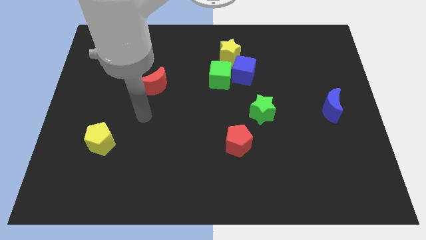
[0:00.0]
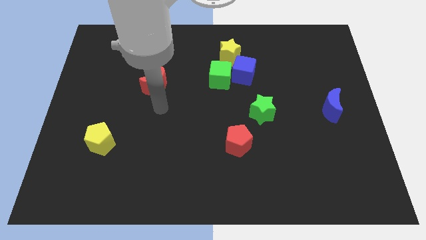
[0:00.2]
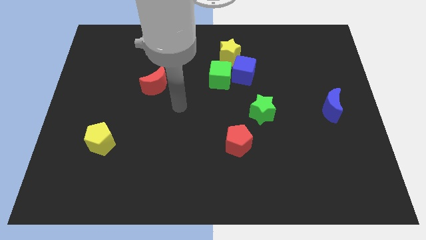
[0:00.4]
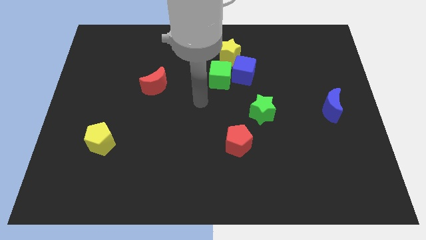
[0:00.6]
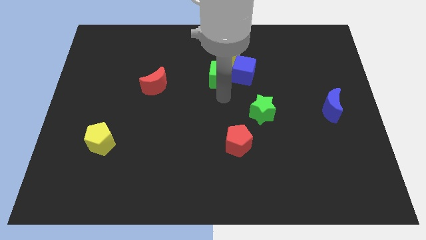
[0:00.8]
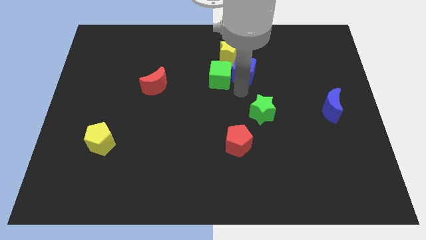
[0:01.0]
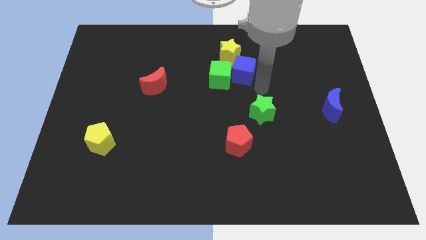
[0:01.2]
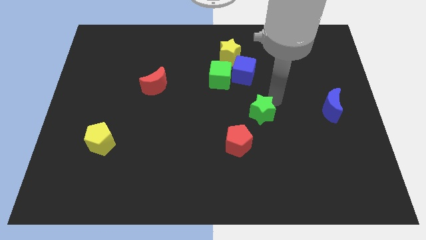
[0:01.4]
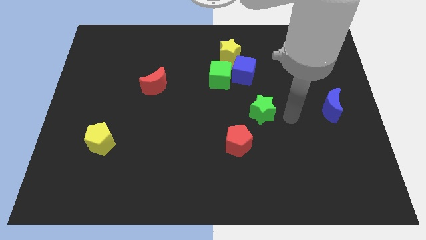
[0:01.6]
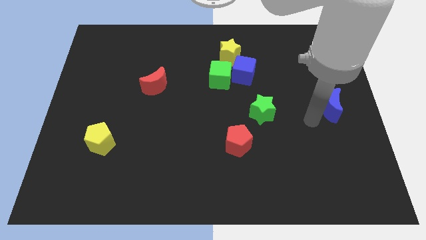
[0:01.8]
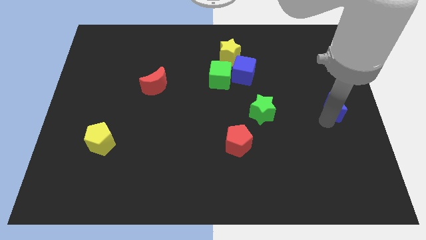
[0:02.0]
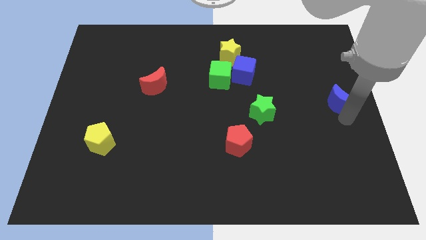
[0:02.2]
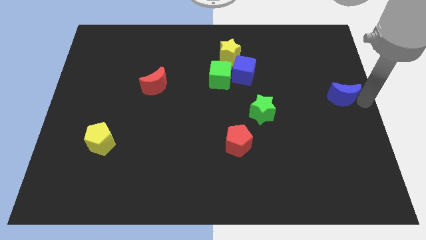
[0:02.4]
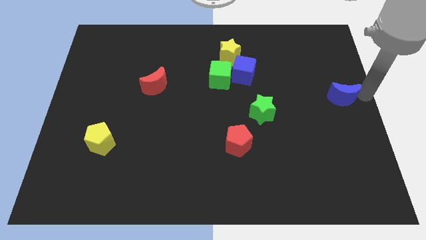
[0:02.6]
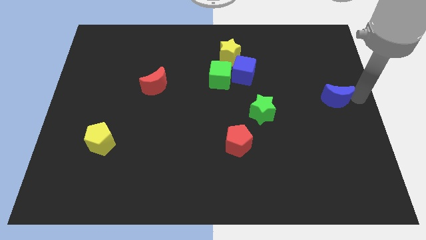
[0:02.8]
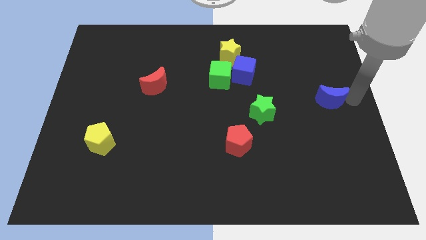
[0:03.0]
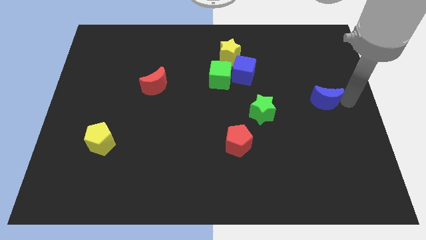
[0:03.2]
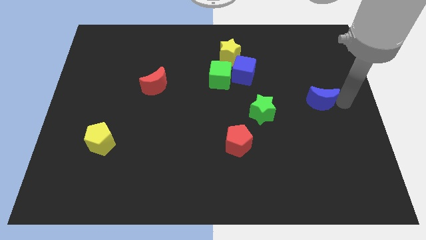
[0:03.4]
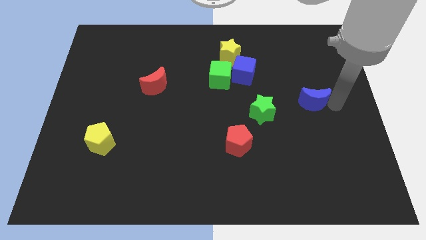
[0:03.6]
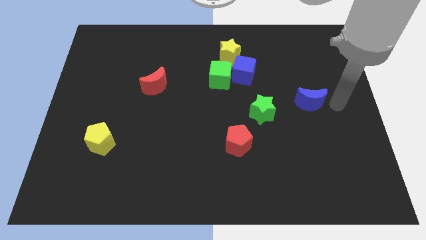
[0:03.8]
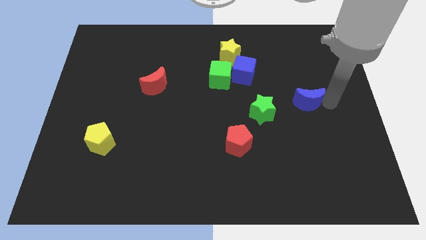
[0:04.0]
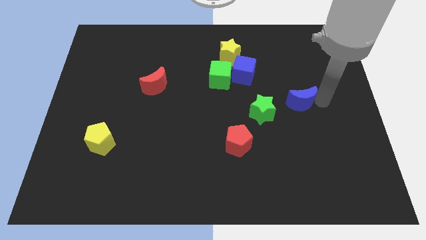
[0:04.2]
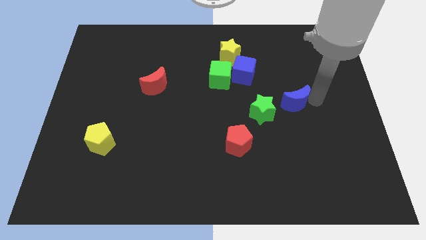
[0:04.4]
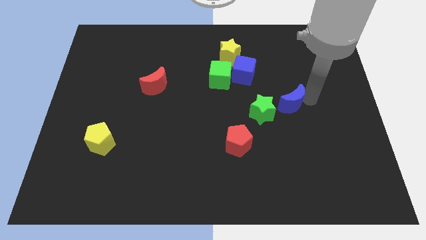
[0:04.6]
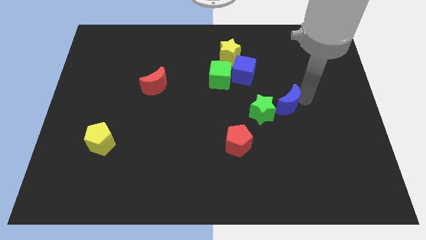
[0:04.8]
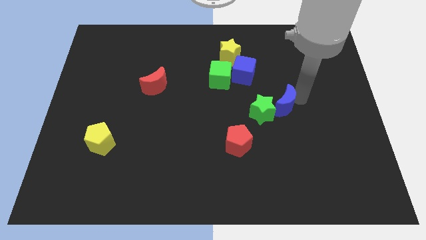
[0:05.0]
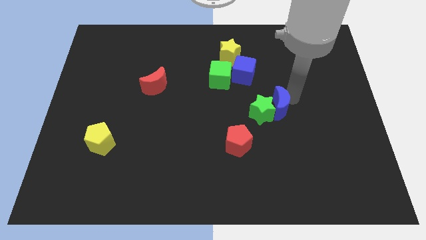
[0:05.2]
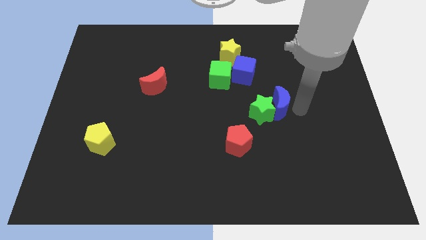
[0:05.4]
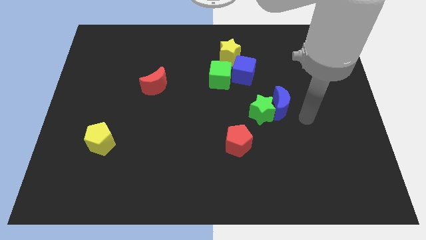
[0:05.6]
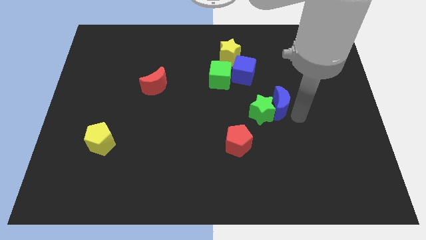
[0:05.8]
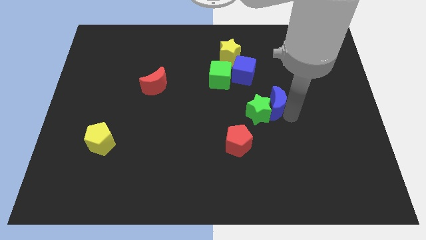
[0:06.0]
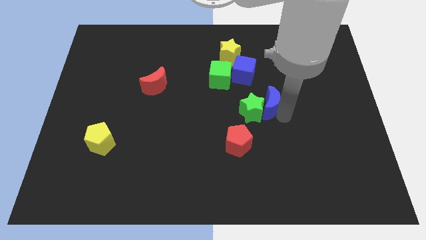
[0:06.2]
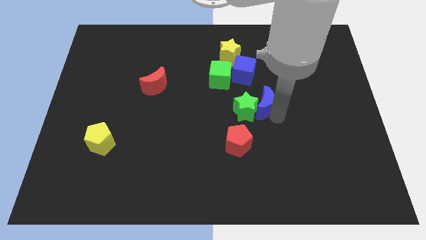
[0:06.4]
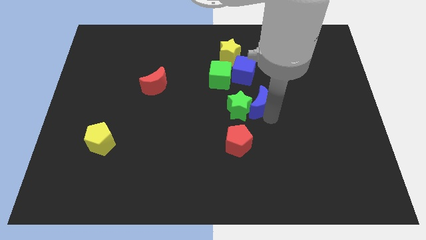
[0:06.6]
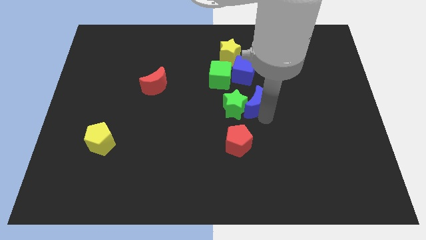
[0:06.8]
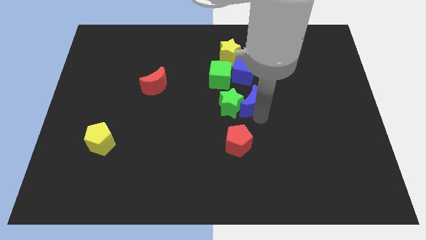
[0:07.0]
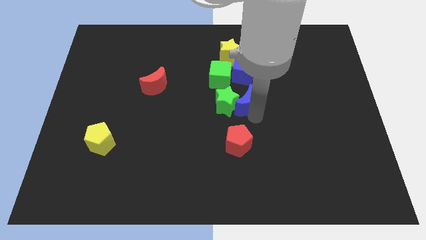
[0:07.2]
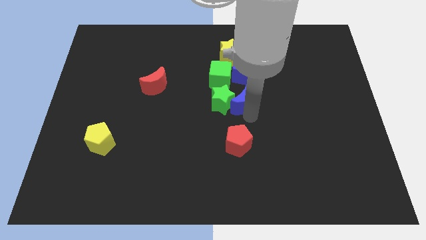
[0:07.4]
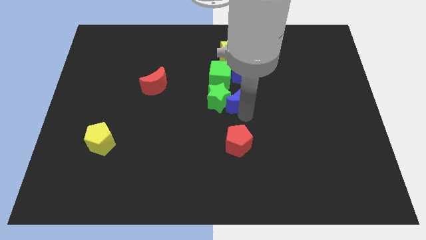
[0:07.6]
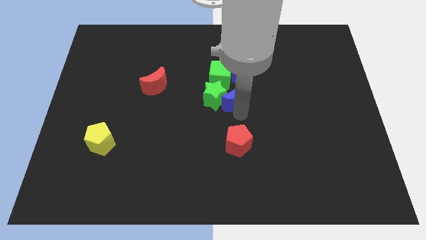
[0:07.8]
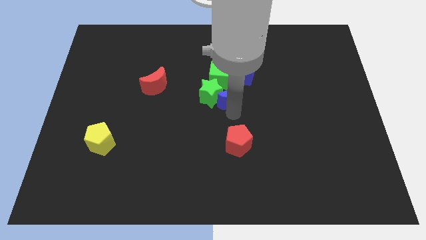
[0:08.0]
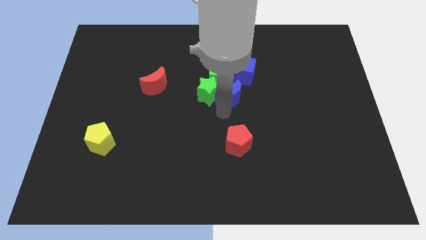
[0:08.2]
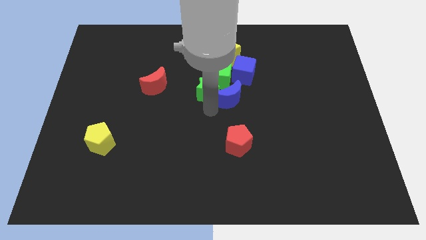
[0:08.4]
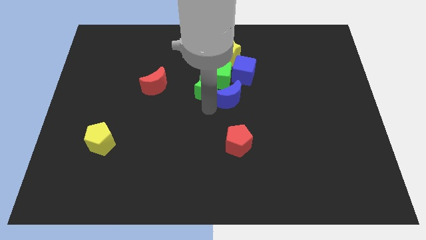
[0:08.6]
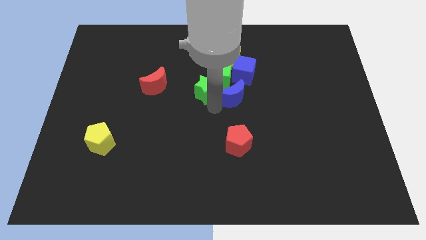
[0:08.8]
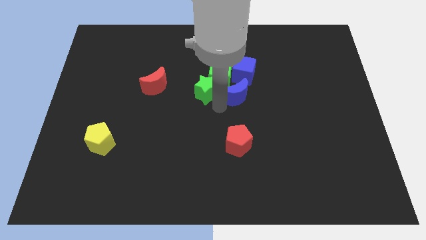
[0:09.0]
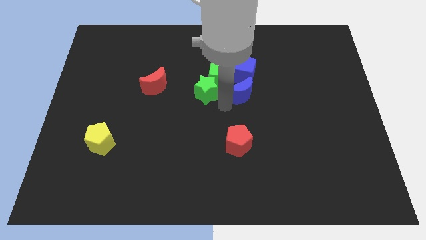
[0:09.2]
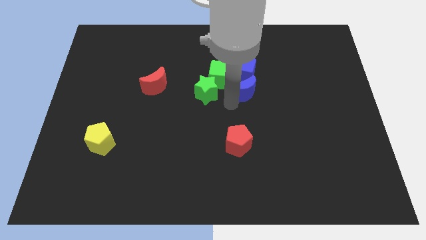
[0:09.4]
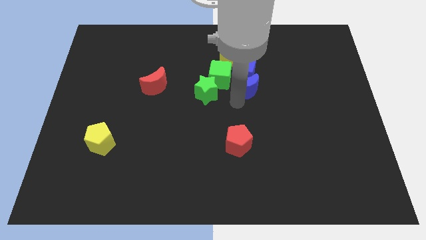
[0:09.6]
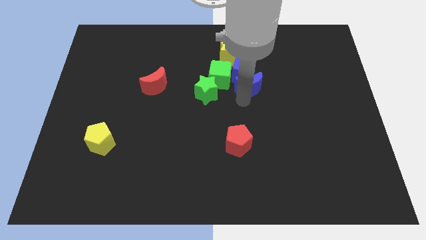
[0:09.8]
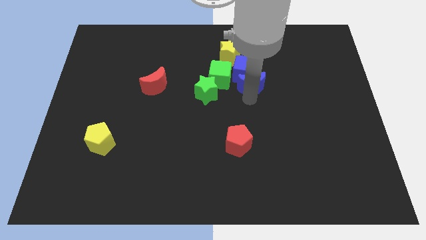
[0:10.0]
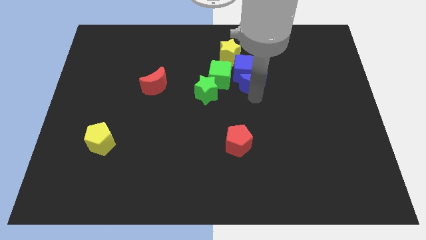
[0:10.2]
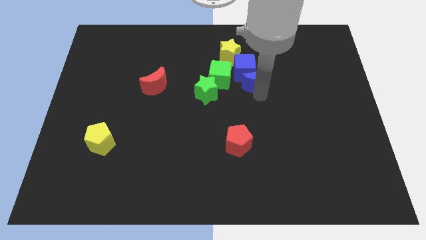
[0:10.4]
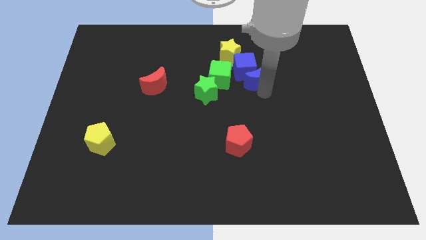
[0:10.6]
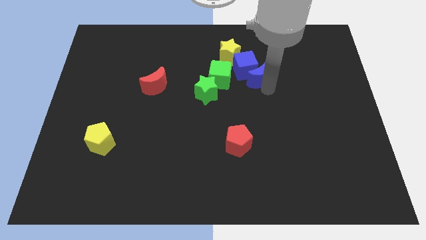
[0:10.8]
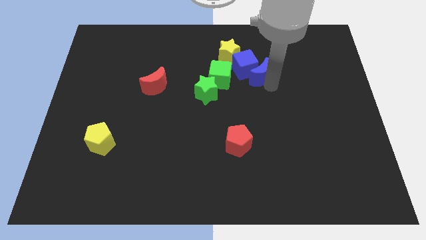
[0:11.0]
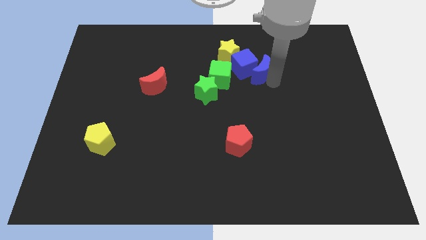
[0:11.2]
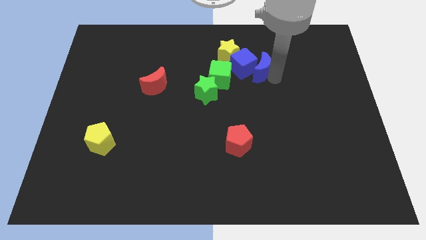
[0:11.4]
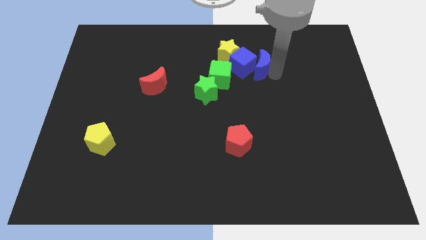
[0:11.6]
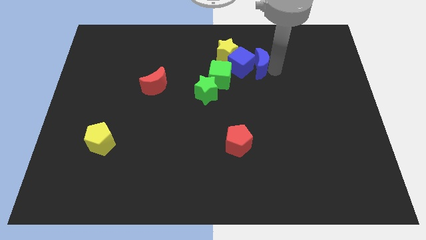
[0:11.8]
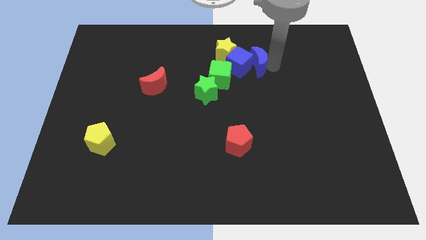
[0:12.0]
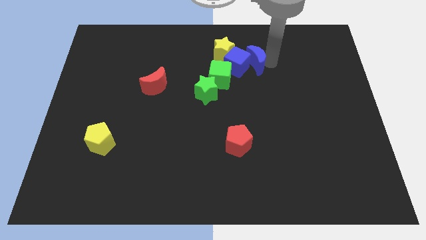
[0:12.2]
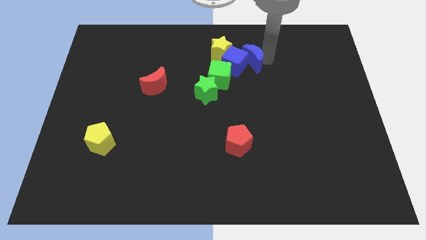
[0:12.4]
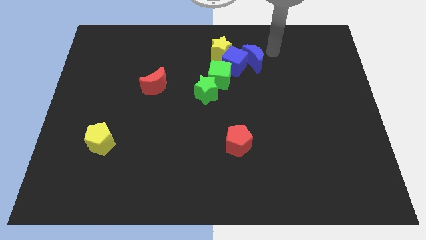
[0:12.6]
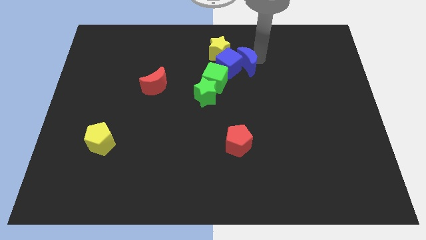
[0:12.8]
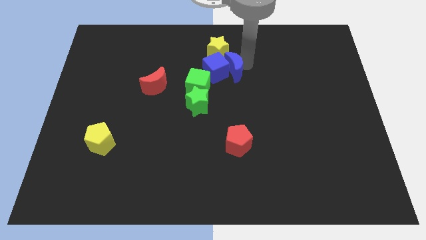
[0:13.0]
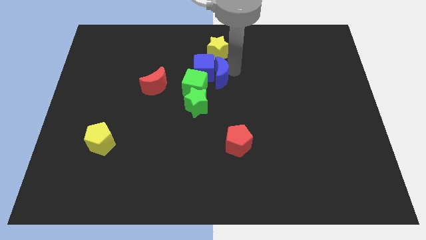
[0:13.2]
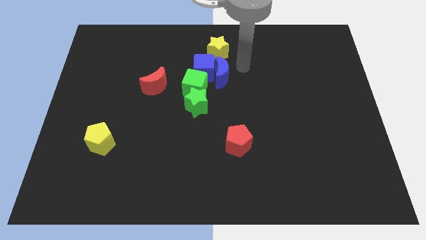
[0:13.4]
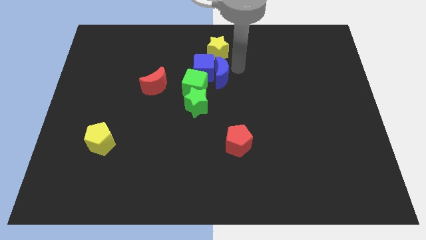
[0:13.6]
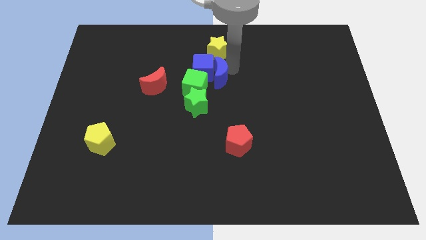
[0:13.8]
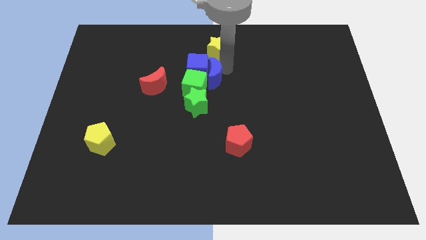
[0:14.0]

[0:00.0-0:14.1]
put the blue moon next to the green cube
